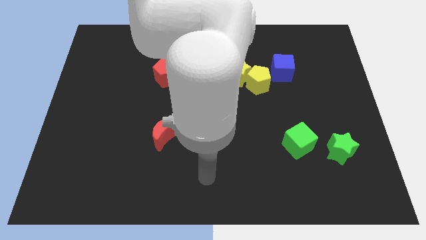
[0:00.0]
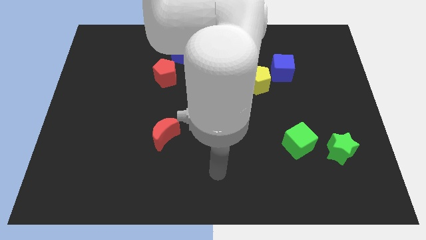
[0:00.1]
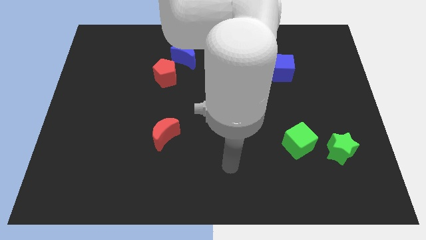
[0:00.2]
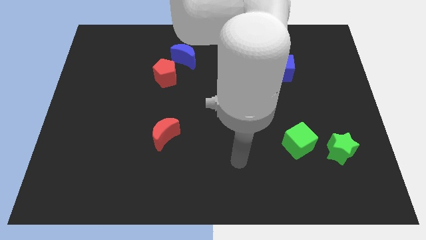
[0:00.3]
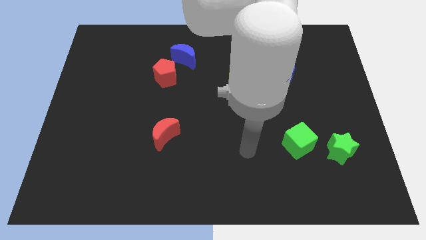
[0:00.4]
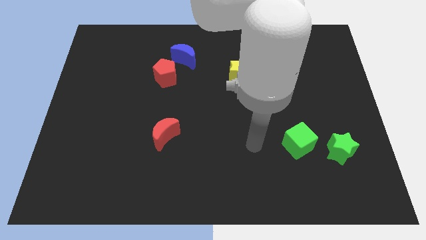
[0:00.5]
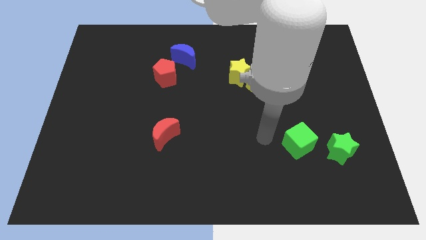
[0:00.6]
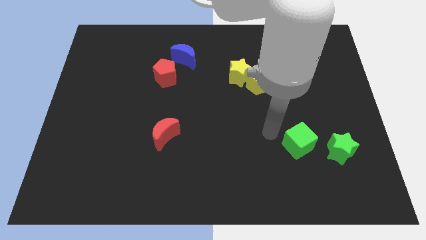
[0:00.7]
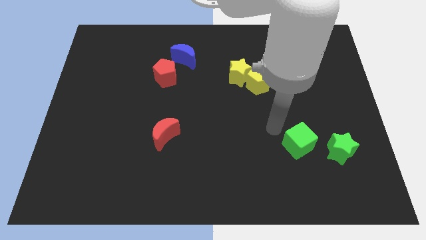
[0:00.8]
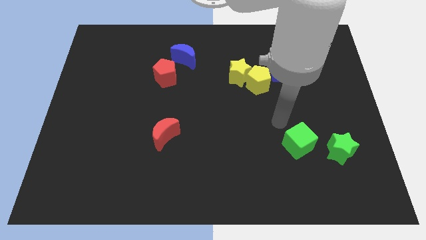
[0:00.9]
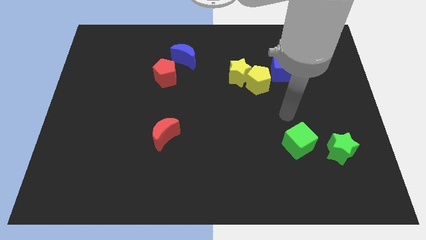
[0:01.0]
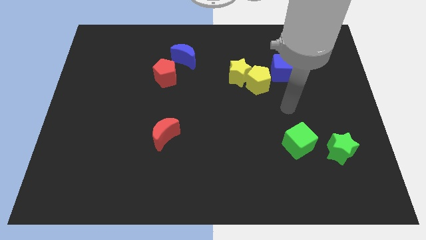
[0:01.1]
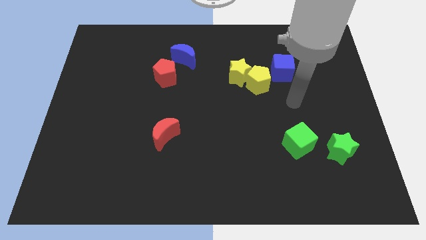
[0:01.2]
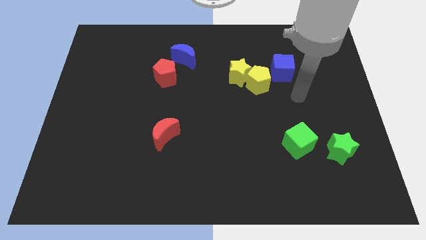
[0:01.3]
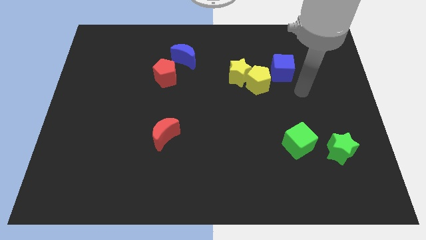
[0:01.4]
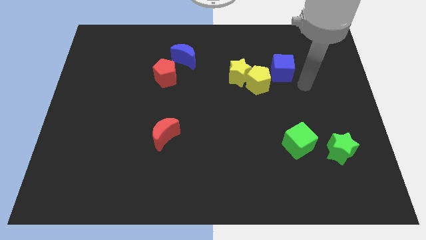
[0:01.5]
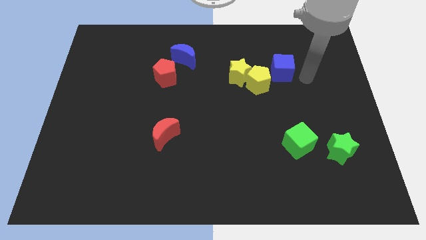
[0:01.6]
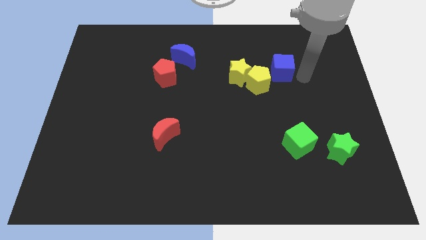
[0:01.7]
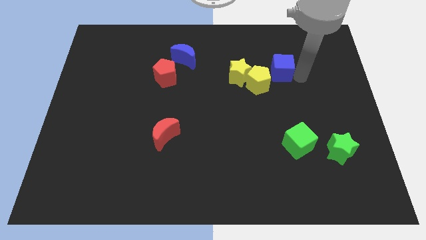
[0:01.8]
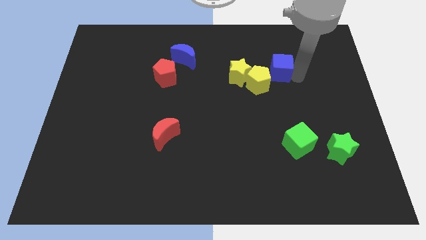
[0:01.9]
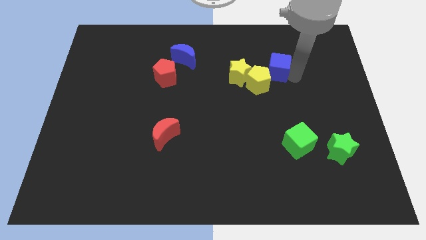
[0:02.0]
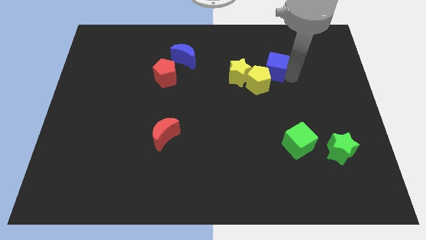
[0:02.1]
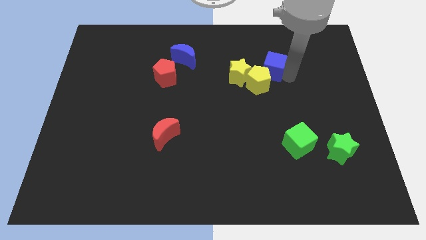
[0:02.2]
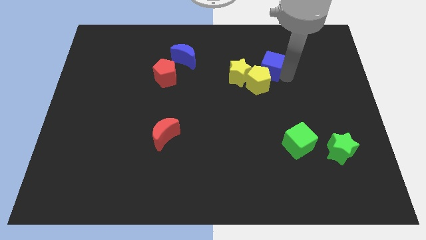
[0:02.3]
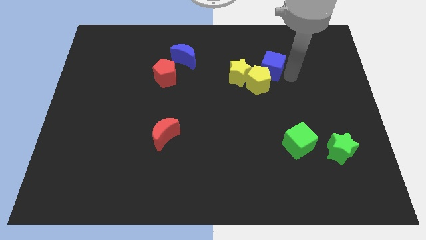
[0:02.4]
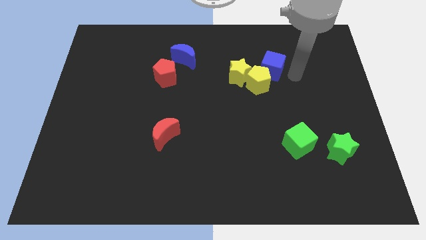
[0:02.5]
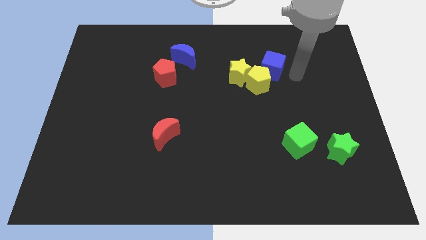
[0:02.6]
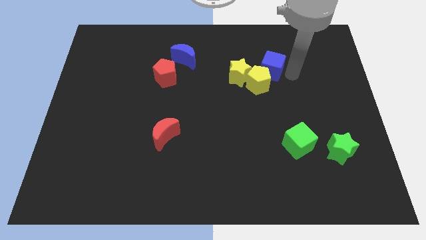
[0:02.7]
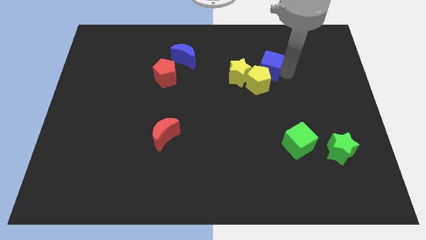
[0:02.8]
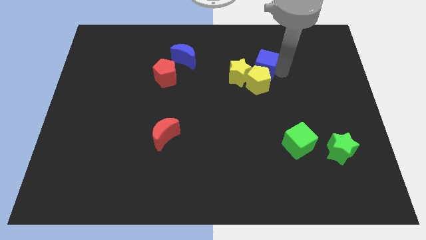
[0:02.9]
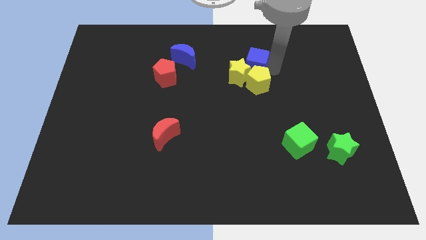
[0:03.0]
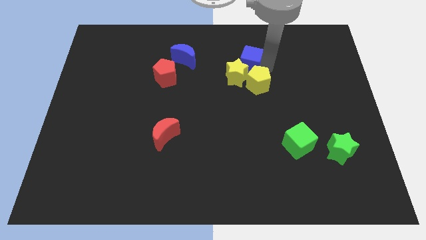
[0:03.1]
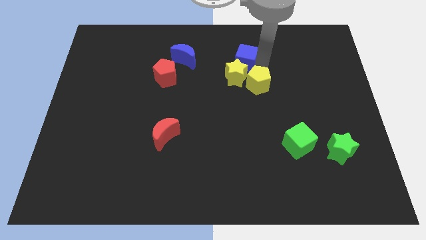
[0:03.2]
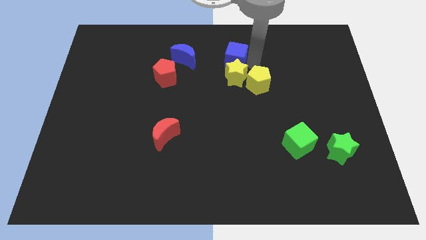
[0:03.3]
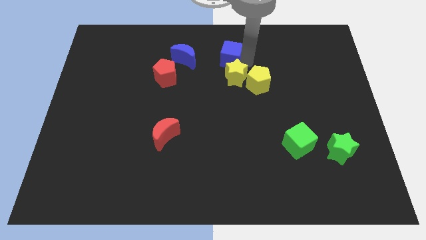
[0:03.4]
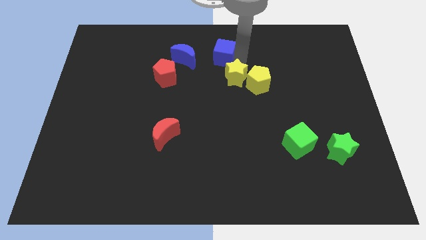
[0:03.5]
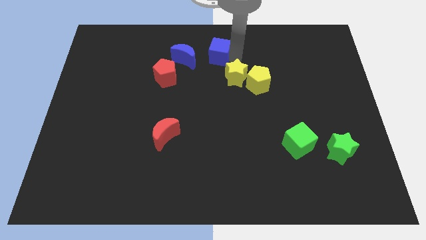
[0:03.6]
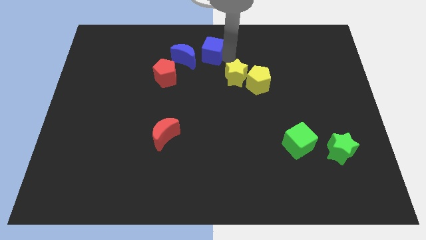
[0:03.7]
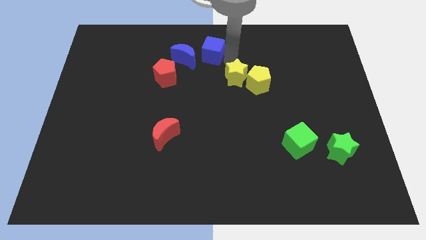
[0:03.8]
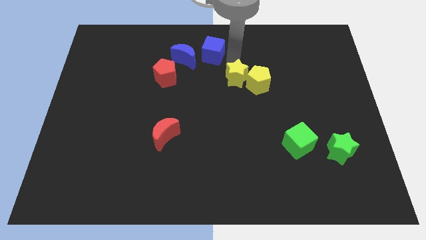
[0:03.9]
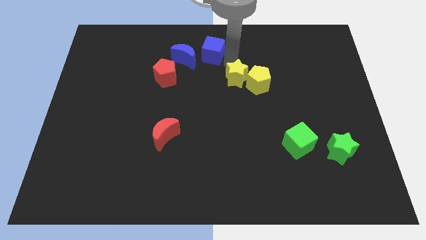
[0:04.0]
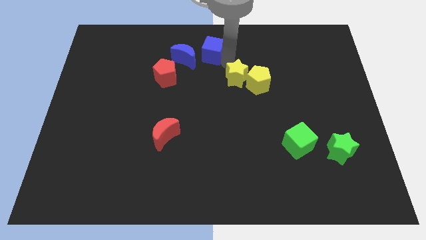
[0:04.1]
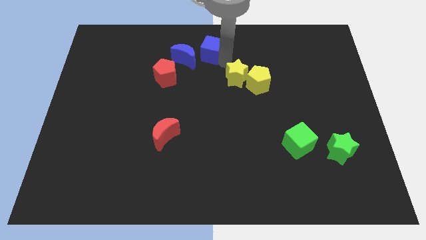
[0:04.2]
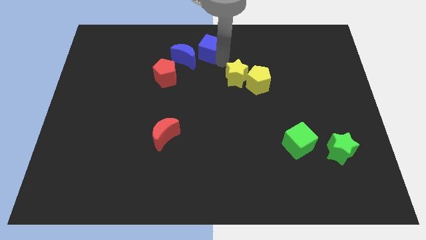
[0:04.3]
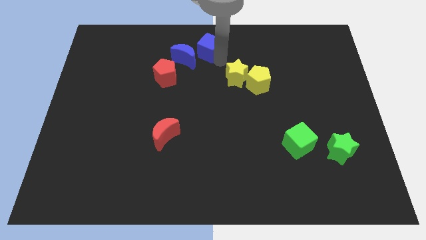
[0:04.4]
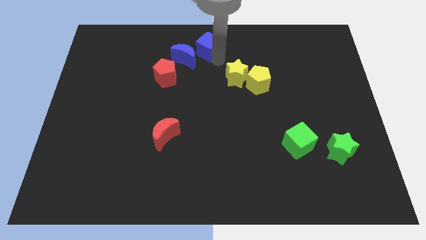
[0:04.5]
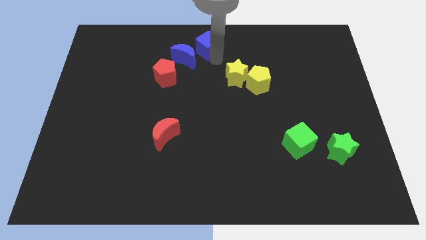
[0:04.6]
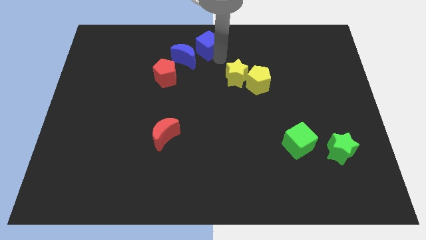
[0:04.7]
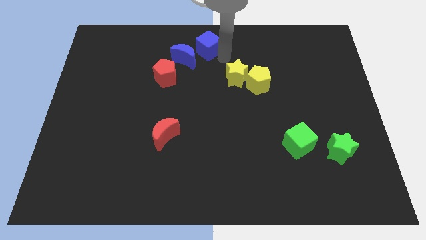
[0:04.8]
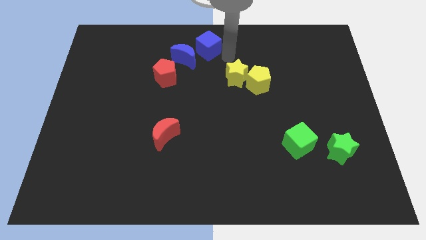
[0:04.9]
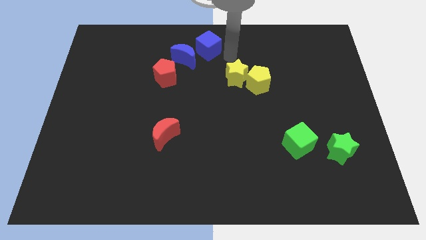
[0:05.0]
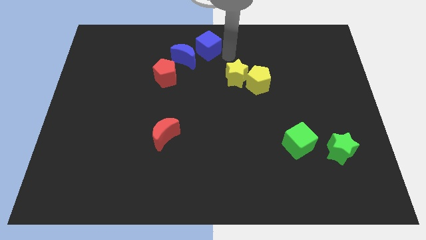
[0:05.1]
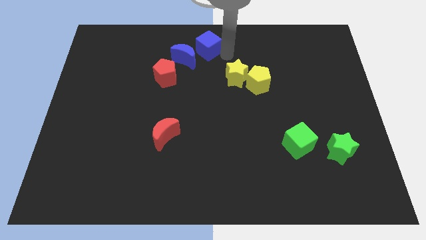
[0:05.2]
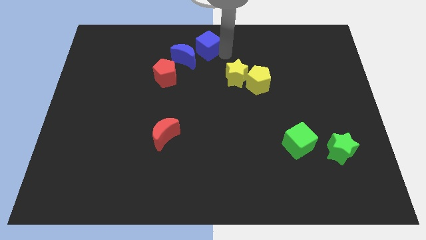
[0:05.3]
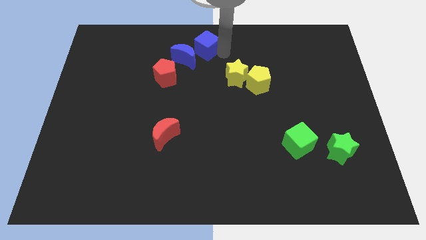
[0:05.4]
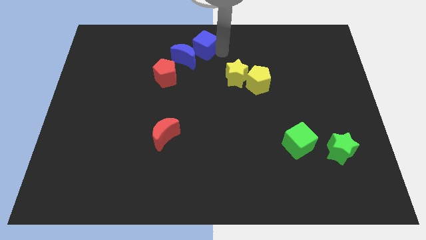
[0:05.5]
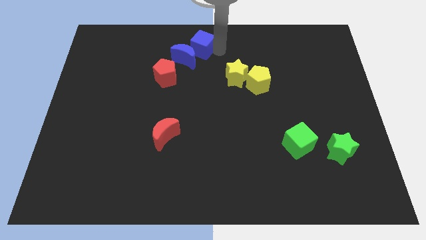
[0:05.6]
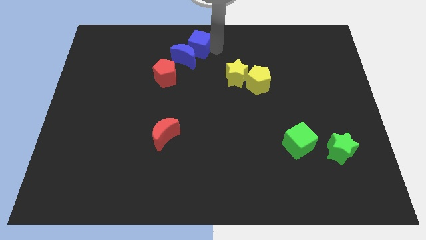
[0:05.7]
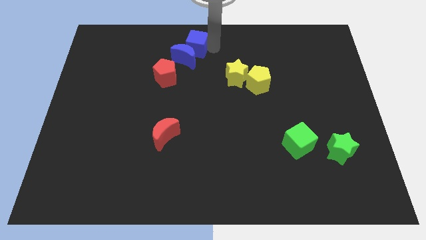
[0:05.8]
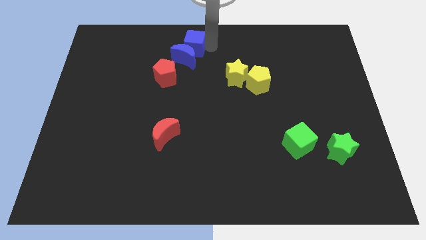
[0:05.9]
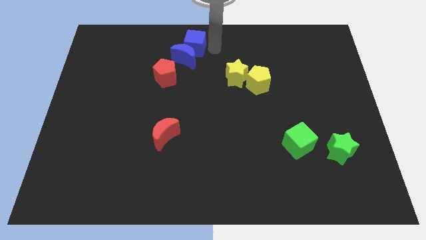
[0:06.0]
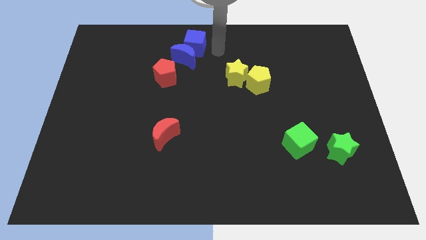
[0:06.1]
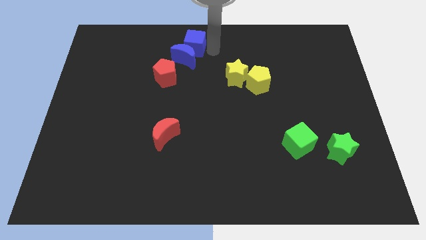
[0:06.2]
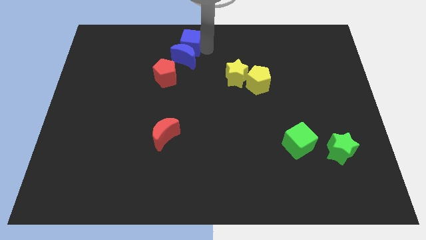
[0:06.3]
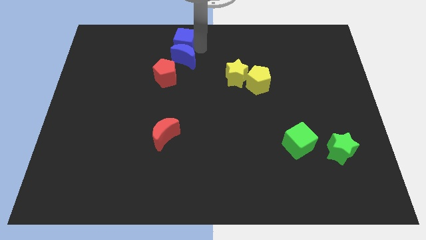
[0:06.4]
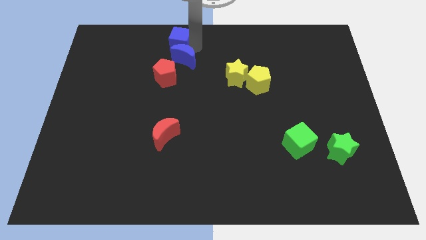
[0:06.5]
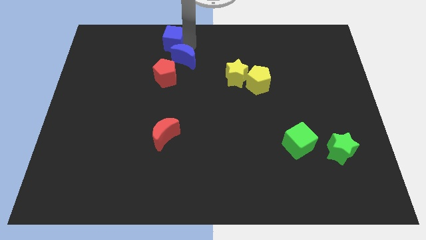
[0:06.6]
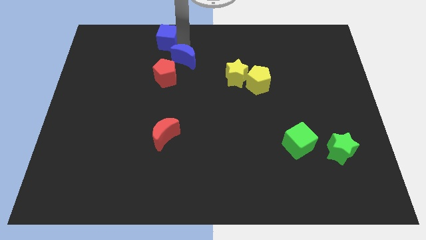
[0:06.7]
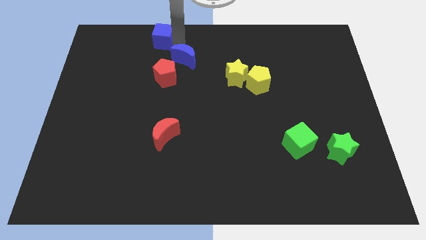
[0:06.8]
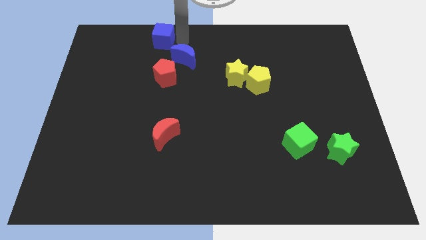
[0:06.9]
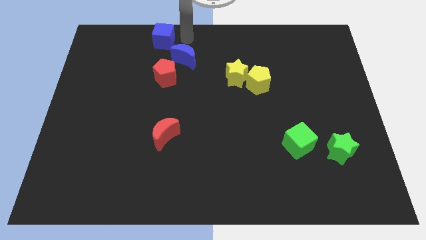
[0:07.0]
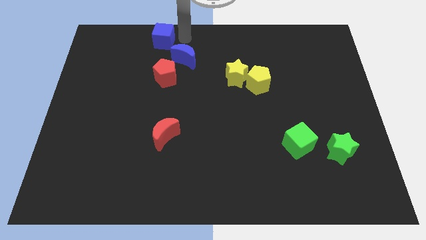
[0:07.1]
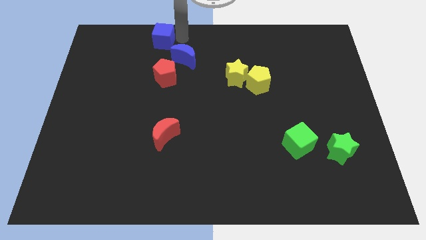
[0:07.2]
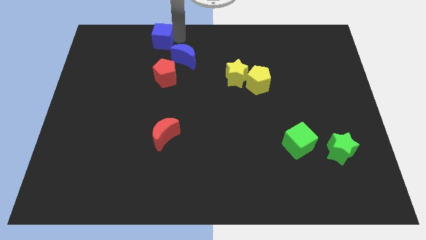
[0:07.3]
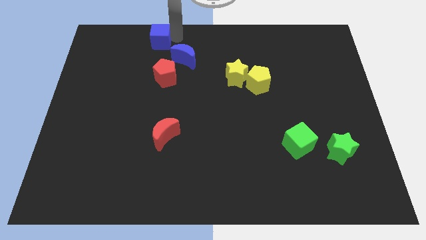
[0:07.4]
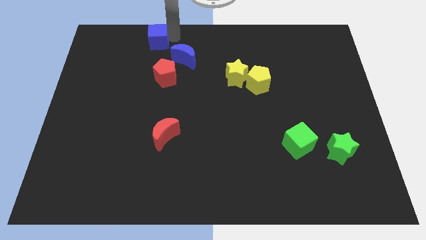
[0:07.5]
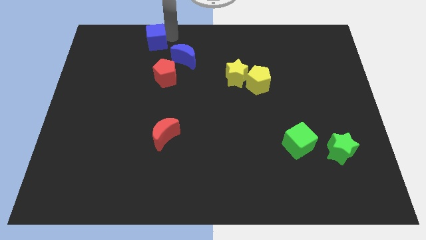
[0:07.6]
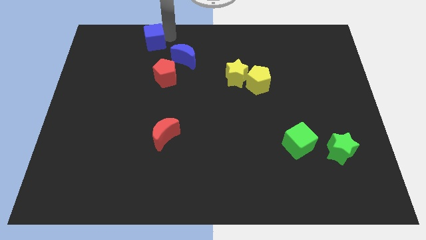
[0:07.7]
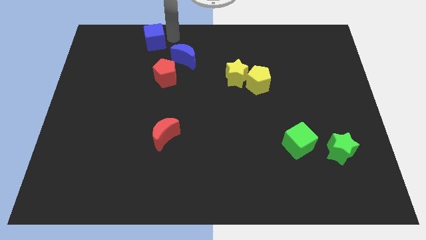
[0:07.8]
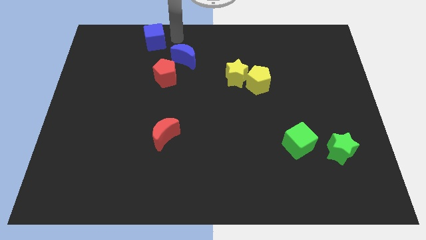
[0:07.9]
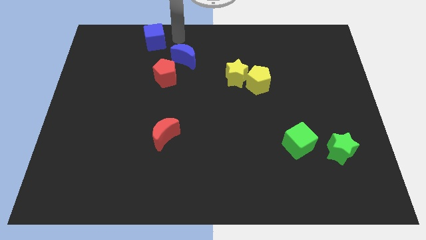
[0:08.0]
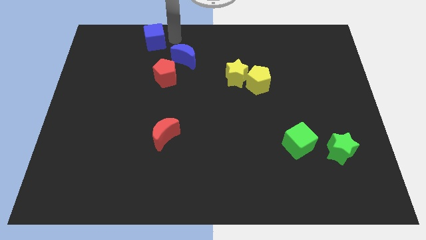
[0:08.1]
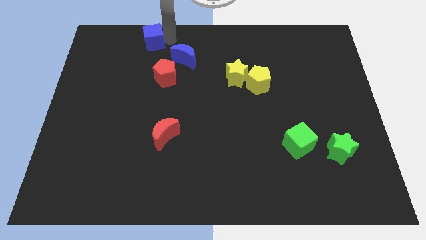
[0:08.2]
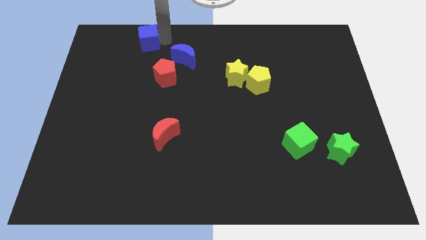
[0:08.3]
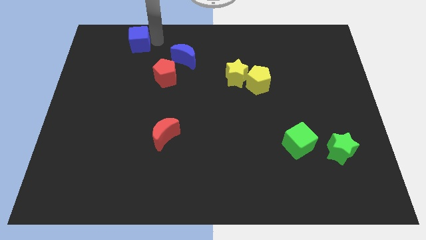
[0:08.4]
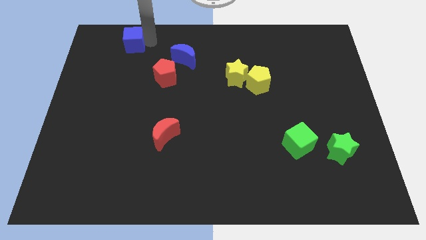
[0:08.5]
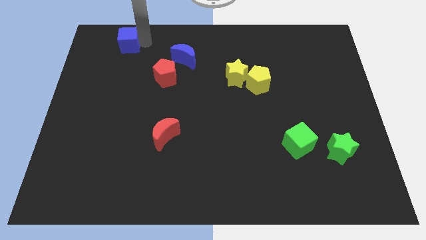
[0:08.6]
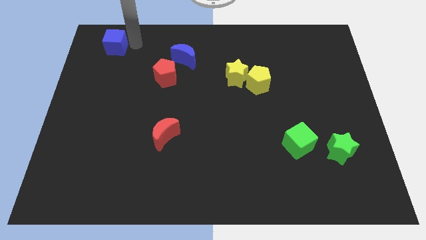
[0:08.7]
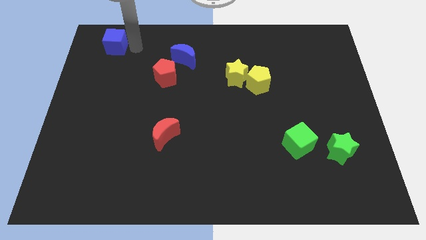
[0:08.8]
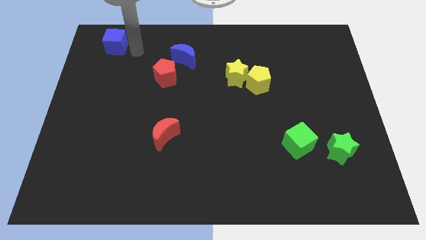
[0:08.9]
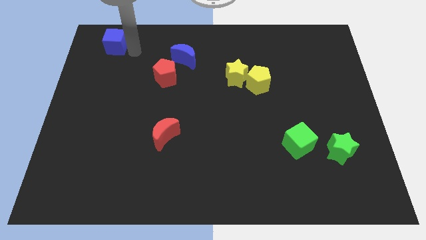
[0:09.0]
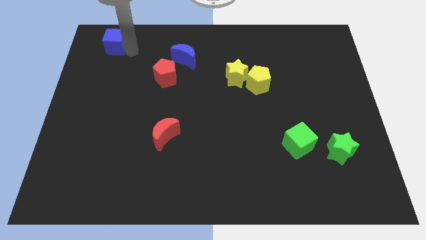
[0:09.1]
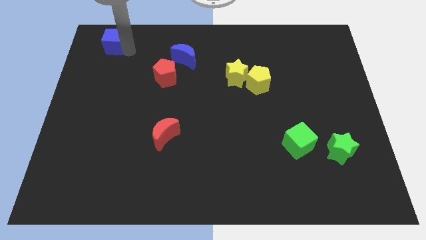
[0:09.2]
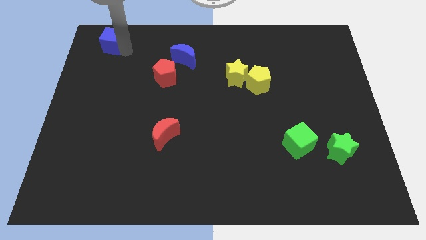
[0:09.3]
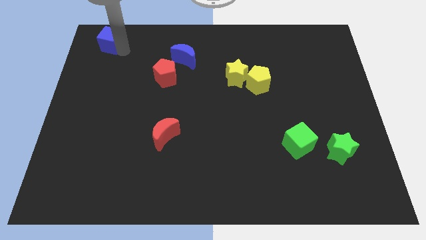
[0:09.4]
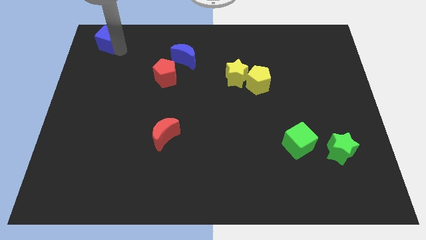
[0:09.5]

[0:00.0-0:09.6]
put the blue cube to the top left
